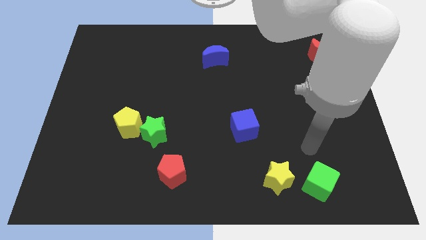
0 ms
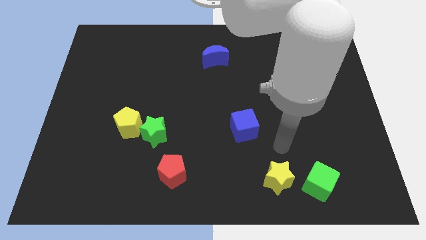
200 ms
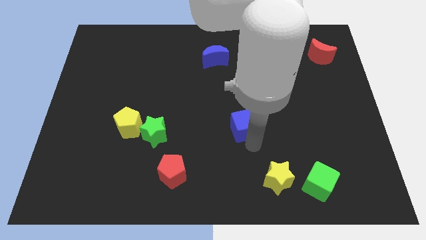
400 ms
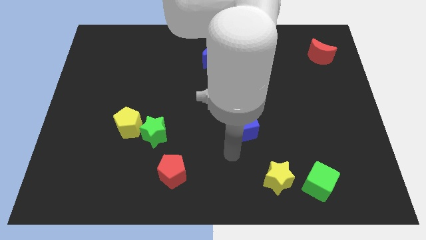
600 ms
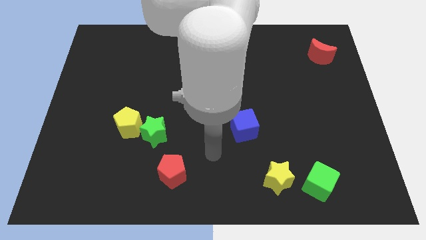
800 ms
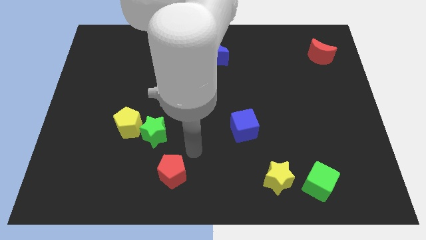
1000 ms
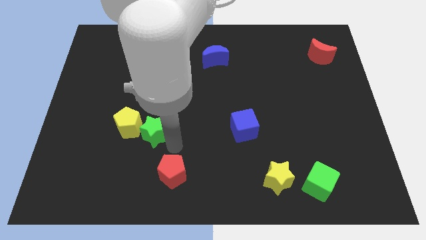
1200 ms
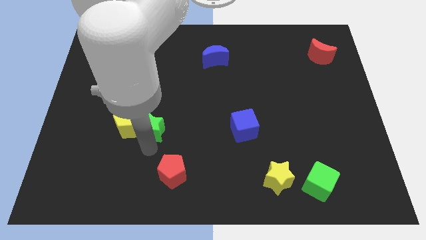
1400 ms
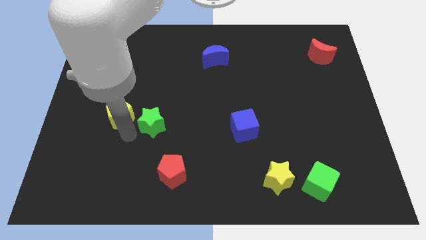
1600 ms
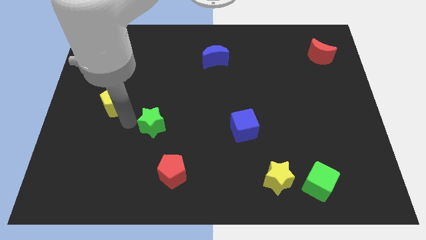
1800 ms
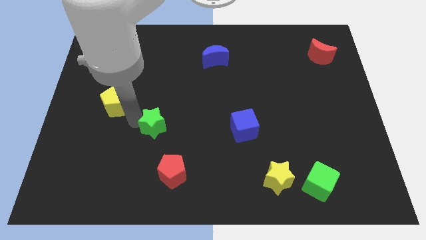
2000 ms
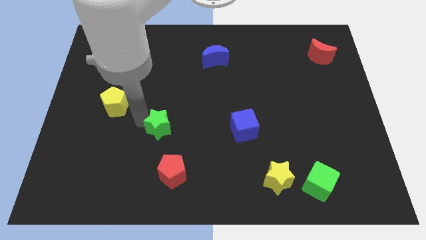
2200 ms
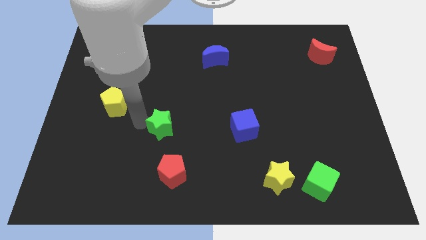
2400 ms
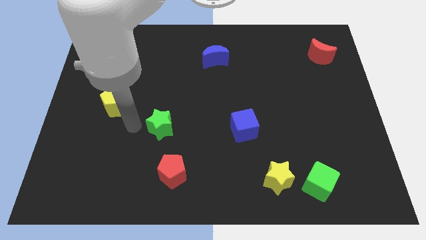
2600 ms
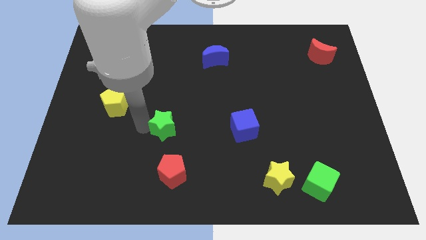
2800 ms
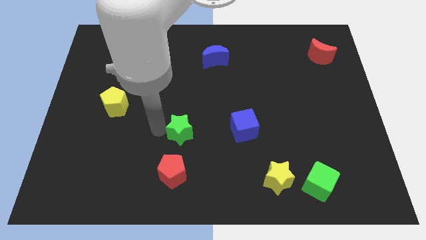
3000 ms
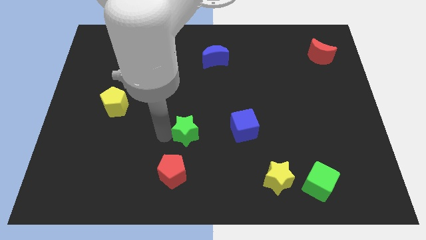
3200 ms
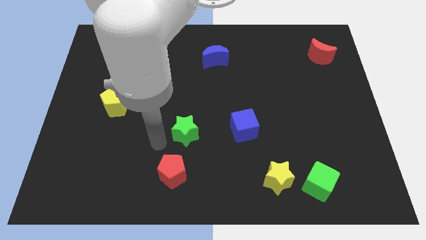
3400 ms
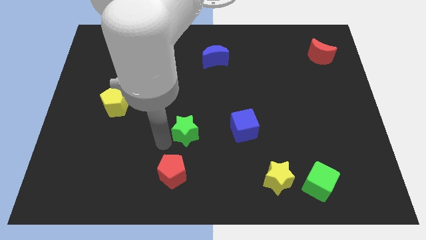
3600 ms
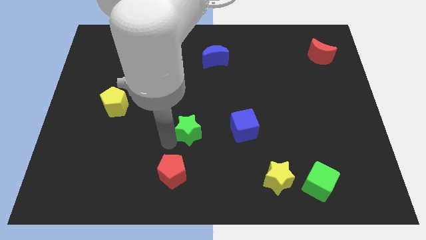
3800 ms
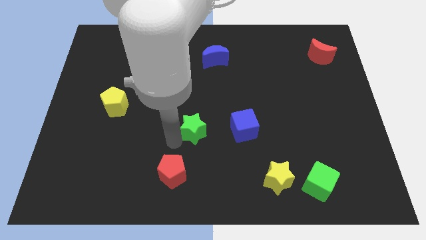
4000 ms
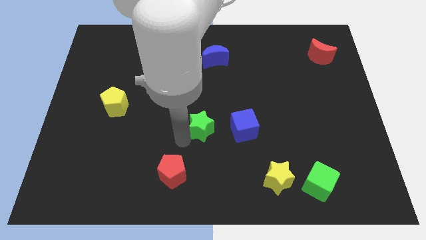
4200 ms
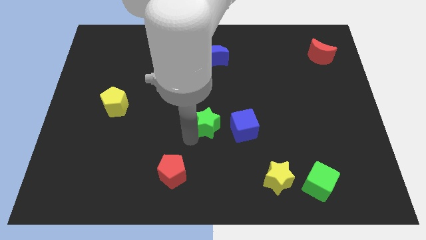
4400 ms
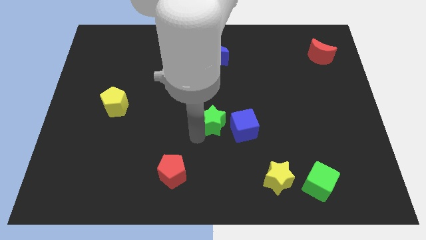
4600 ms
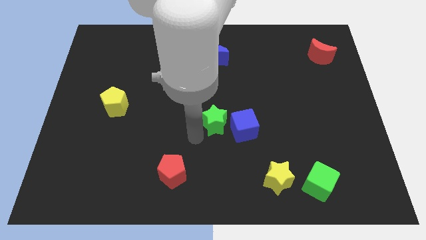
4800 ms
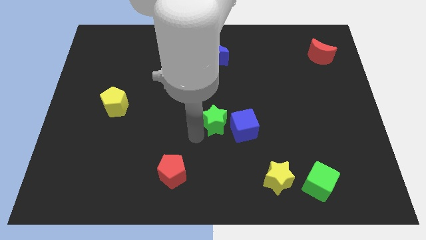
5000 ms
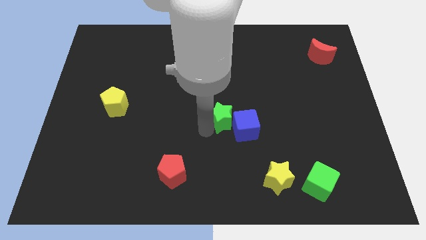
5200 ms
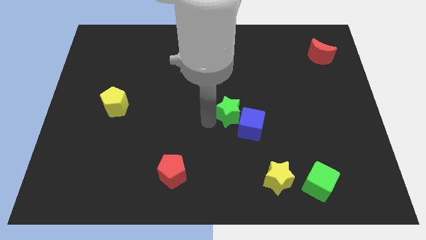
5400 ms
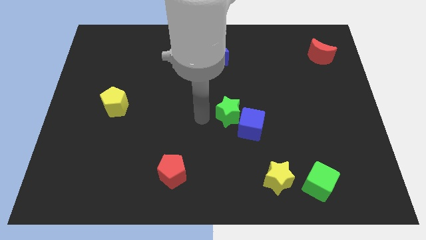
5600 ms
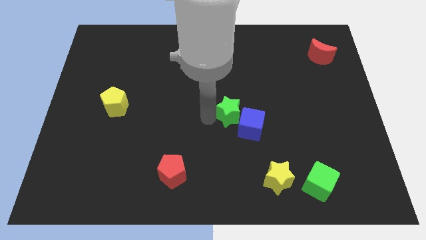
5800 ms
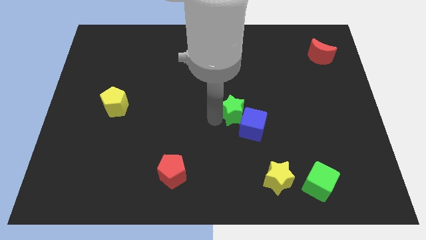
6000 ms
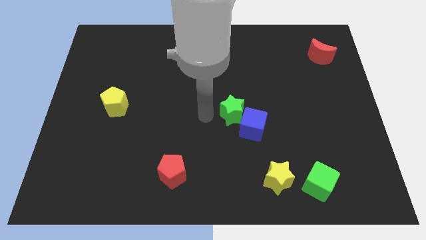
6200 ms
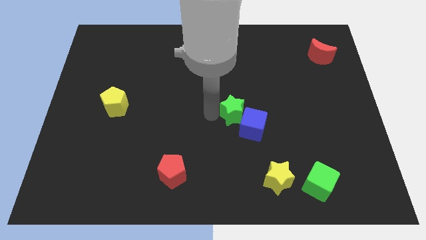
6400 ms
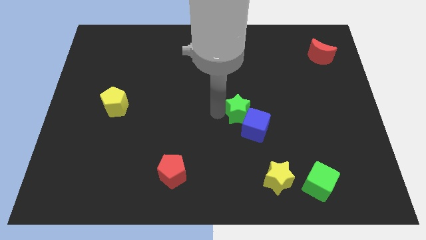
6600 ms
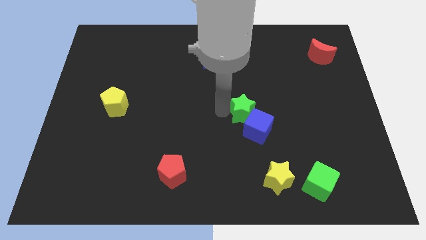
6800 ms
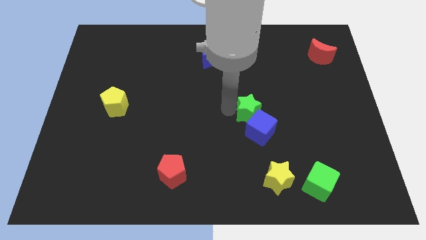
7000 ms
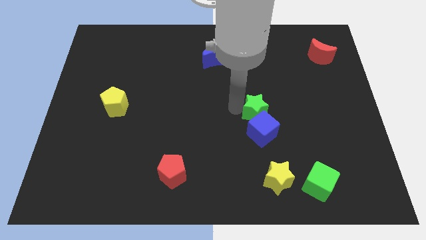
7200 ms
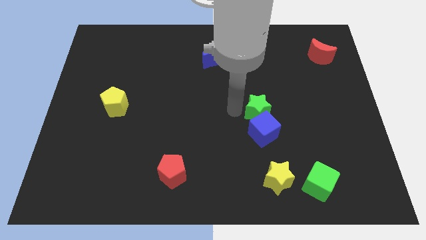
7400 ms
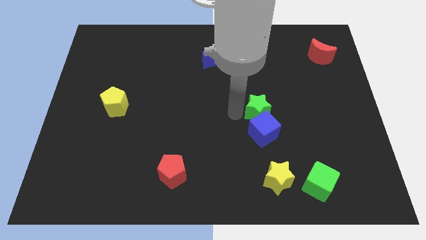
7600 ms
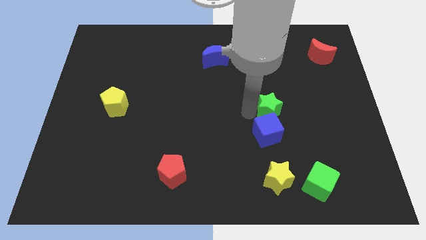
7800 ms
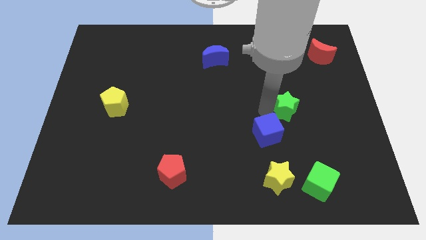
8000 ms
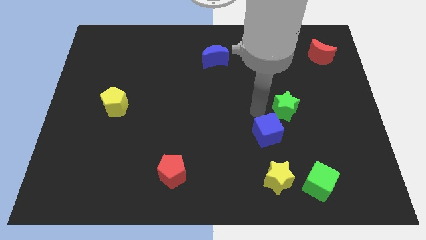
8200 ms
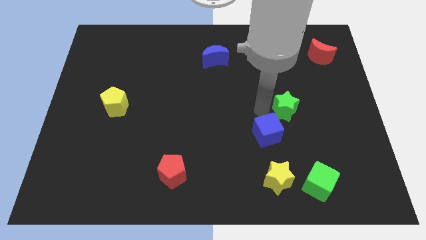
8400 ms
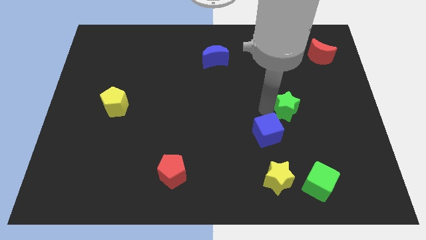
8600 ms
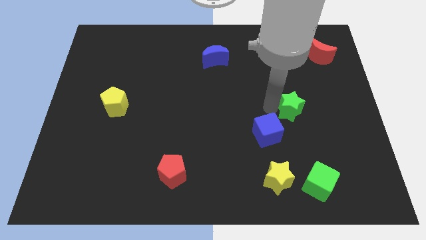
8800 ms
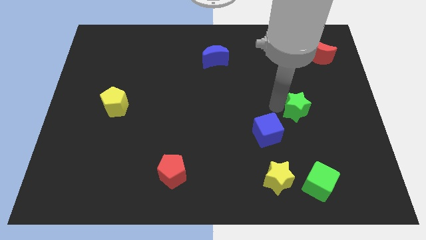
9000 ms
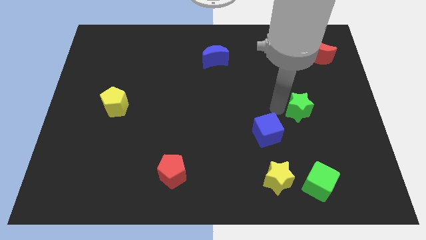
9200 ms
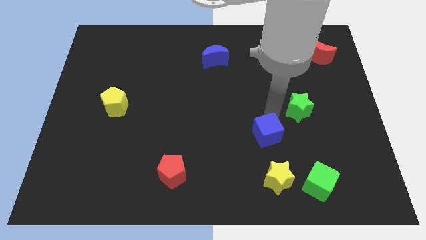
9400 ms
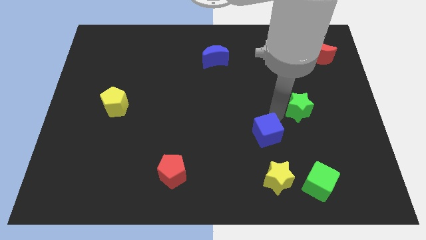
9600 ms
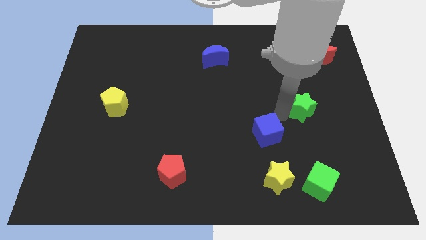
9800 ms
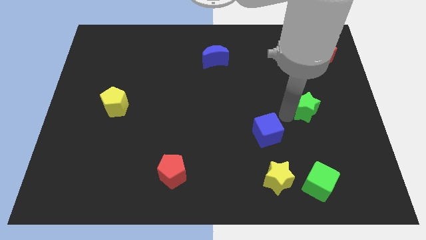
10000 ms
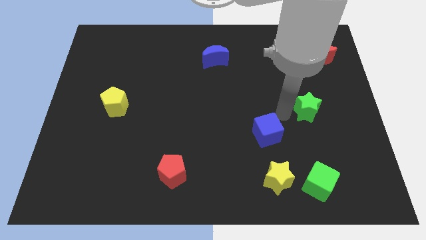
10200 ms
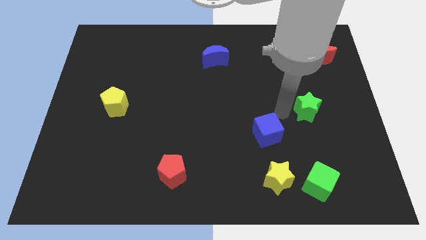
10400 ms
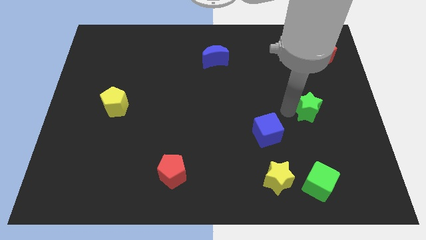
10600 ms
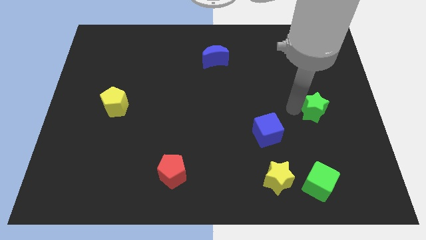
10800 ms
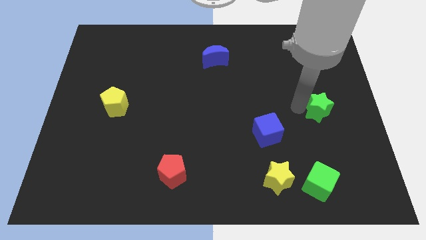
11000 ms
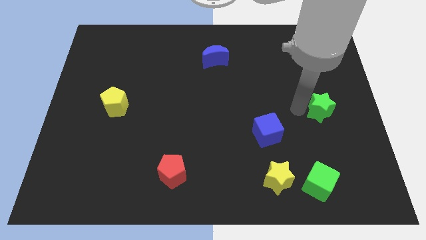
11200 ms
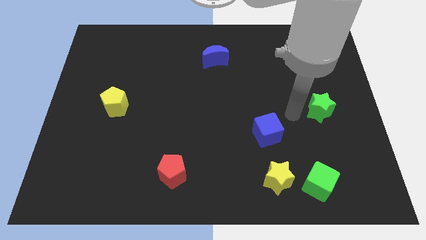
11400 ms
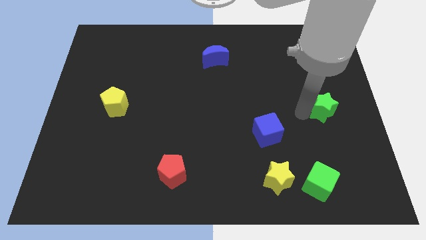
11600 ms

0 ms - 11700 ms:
slide the green star to the right side of the board

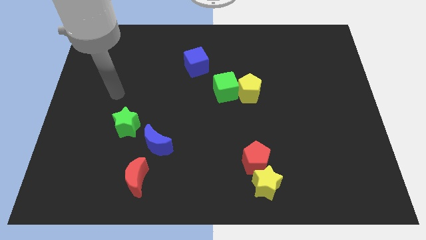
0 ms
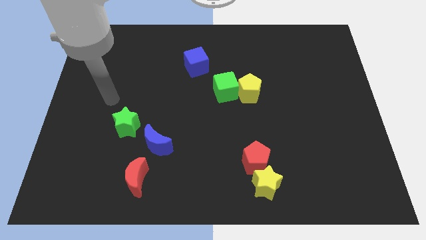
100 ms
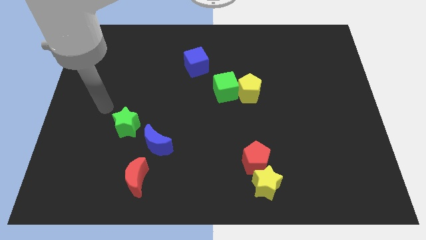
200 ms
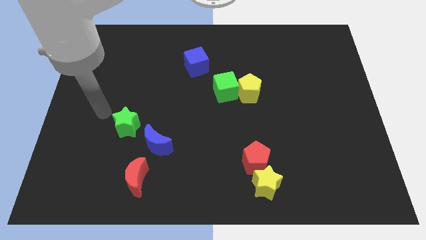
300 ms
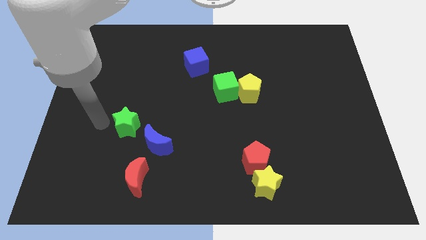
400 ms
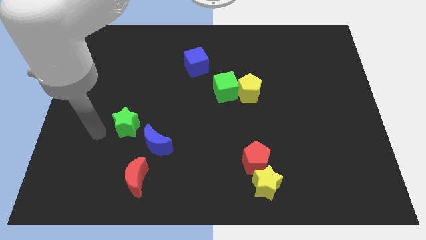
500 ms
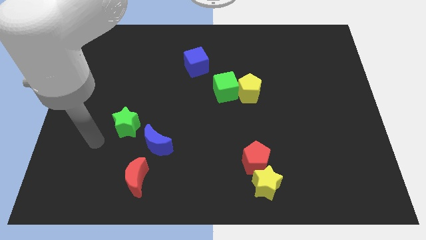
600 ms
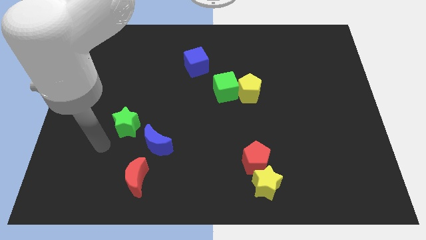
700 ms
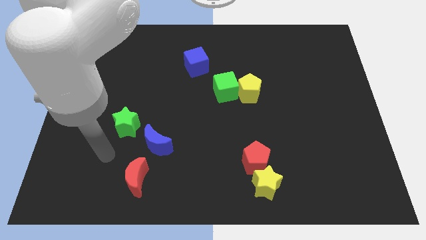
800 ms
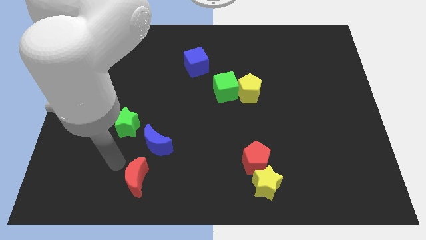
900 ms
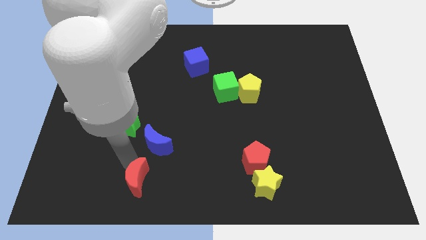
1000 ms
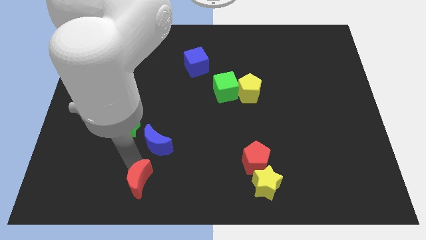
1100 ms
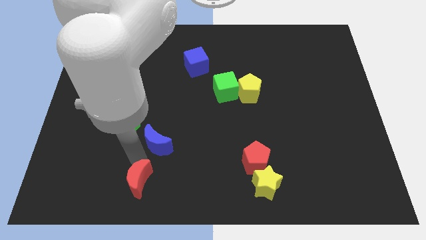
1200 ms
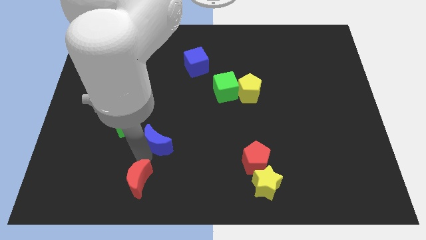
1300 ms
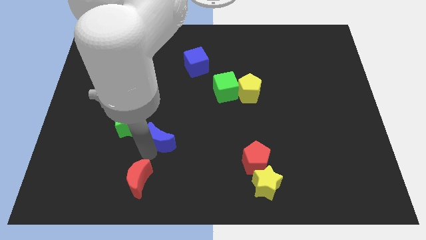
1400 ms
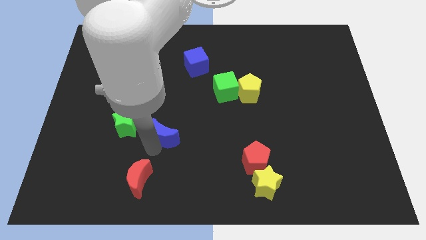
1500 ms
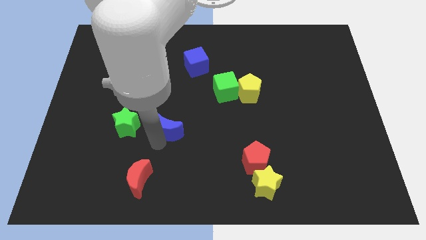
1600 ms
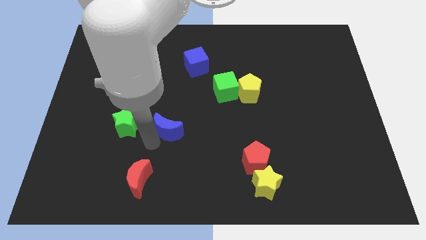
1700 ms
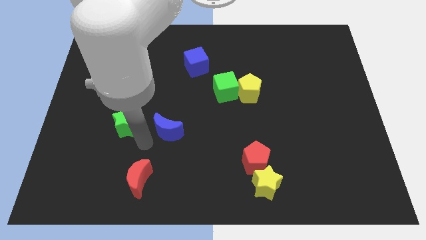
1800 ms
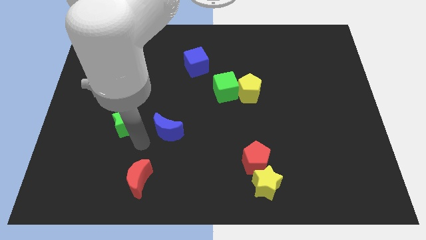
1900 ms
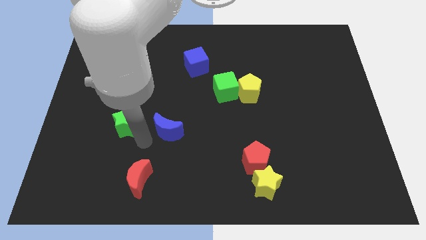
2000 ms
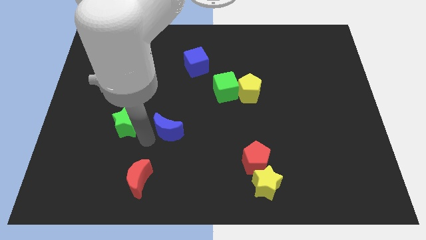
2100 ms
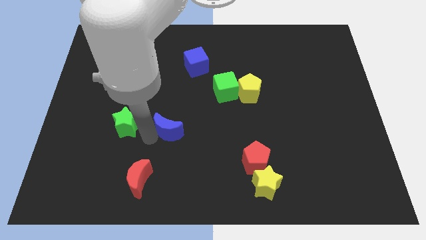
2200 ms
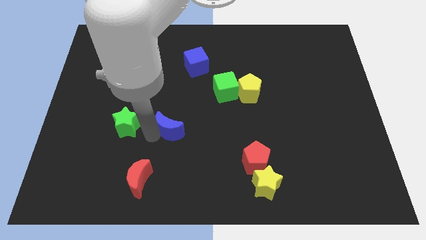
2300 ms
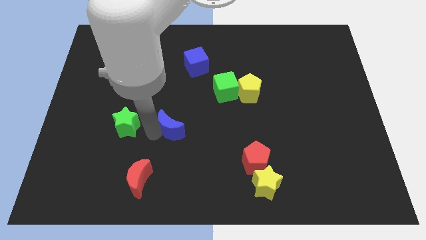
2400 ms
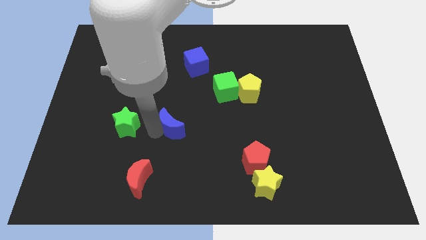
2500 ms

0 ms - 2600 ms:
move the blue moon to the middle of the board
